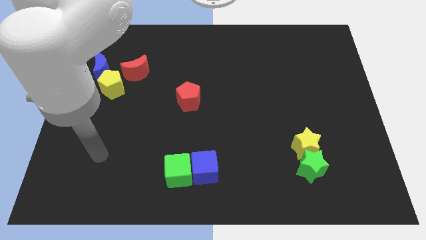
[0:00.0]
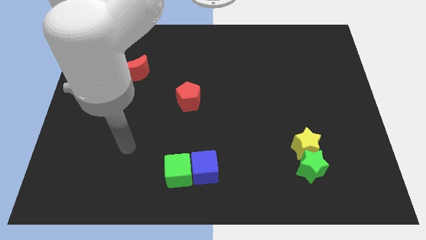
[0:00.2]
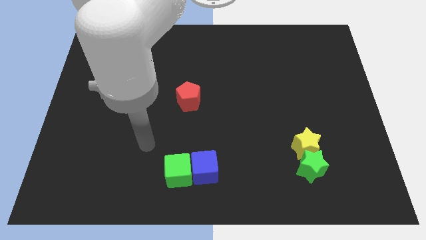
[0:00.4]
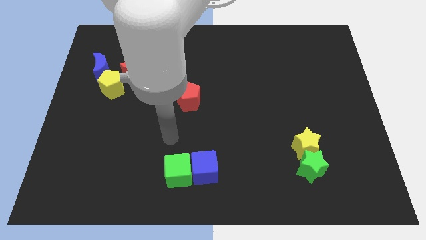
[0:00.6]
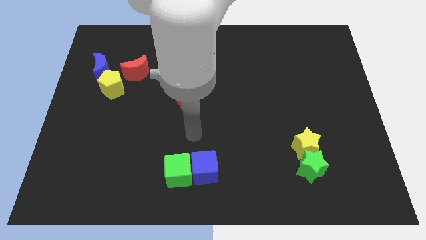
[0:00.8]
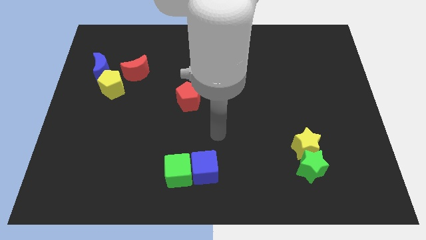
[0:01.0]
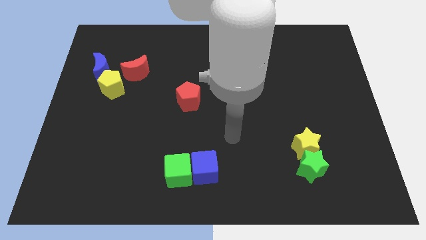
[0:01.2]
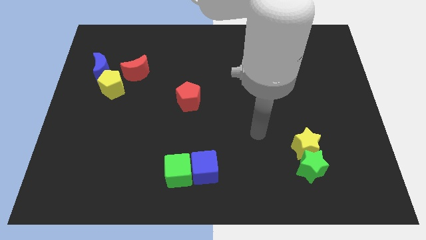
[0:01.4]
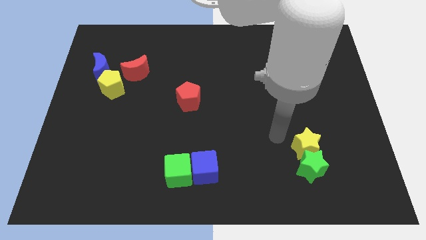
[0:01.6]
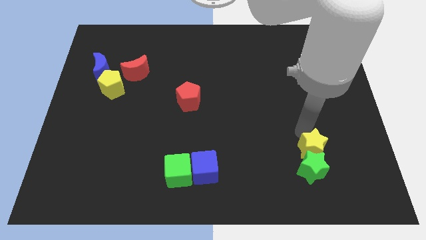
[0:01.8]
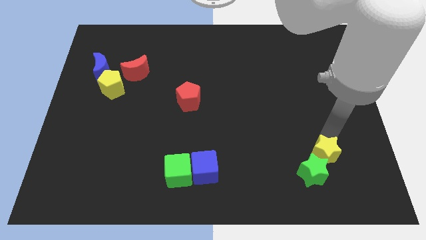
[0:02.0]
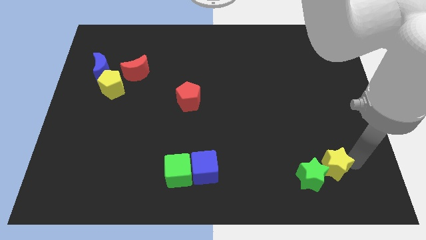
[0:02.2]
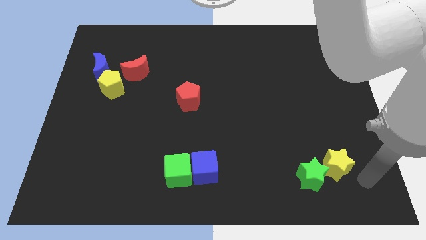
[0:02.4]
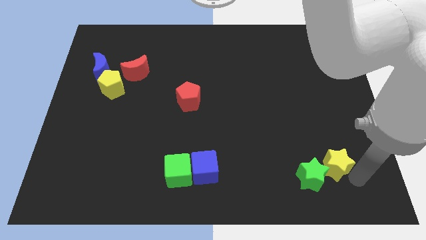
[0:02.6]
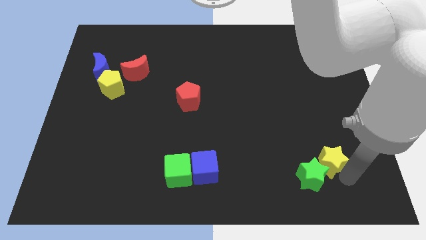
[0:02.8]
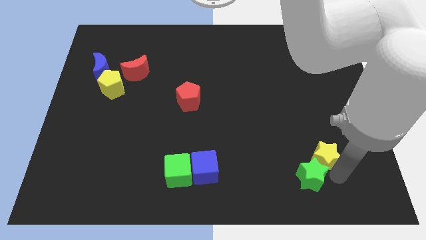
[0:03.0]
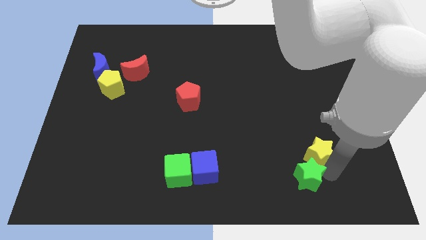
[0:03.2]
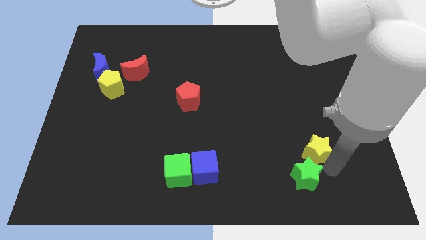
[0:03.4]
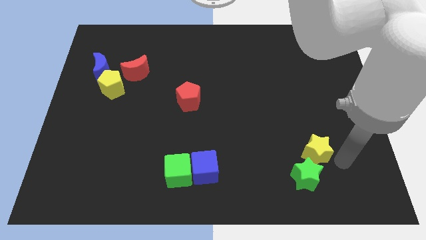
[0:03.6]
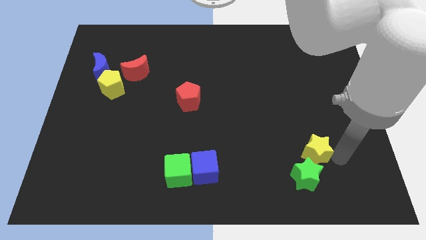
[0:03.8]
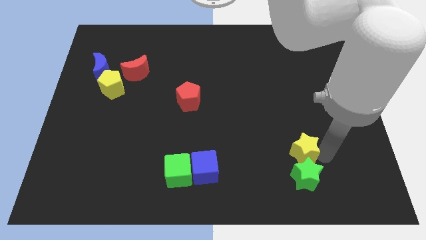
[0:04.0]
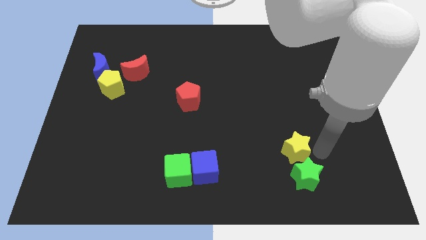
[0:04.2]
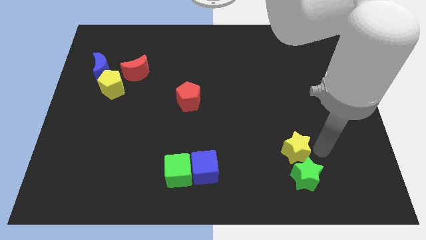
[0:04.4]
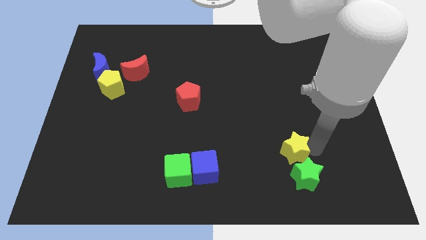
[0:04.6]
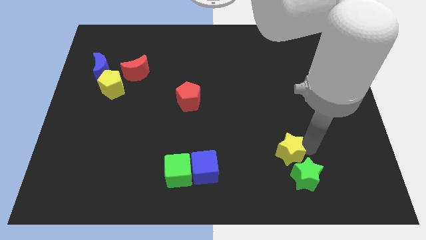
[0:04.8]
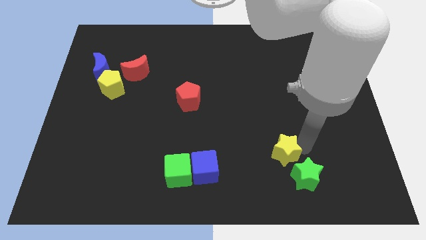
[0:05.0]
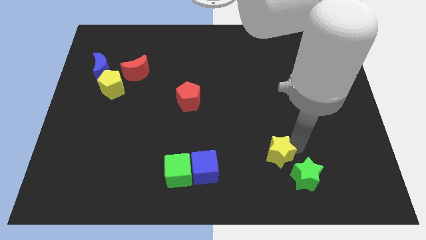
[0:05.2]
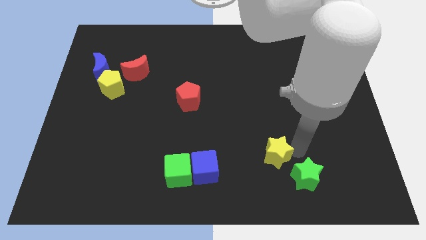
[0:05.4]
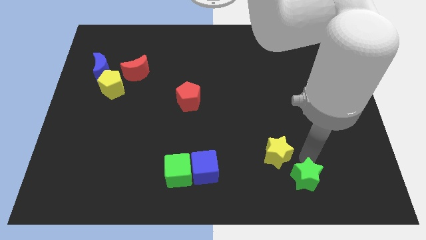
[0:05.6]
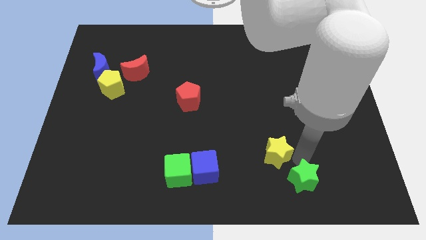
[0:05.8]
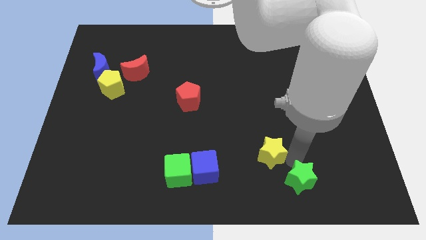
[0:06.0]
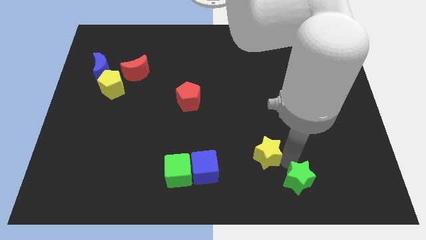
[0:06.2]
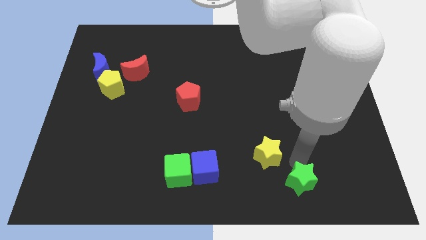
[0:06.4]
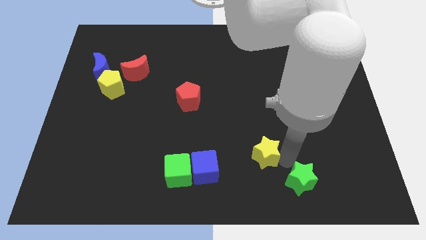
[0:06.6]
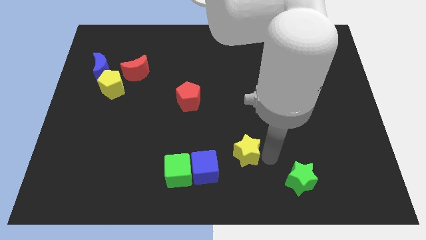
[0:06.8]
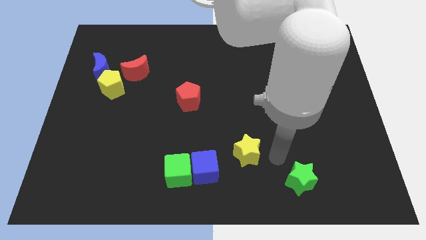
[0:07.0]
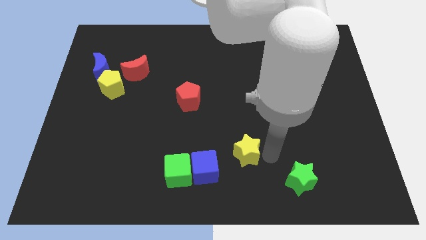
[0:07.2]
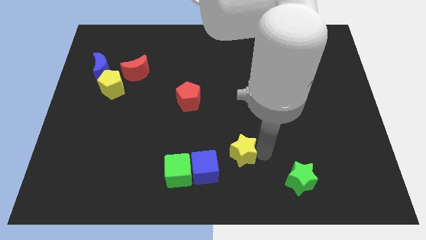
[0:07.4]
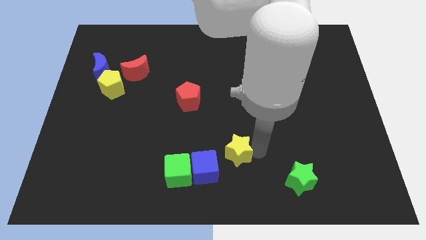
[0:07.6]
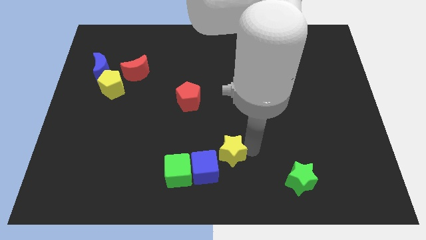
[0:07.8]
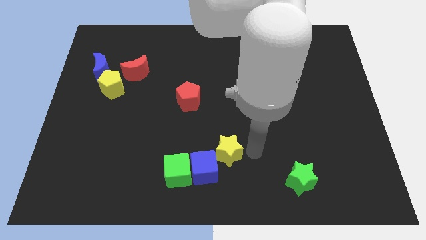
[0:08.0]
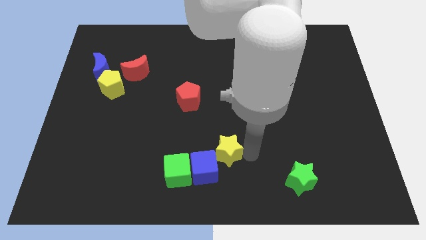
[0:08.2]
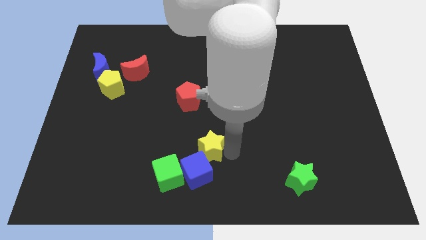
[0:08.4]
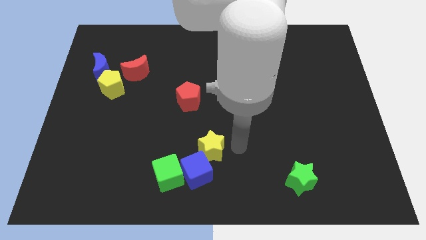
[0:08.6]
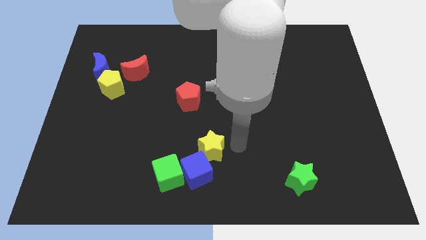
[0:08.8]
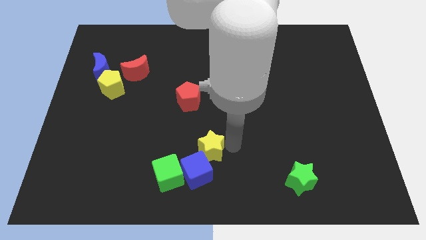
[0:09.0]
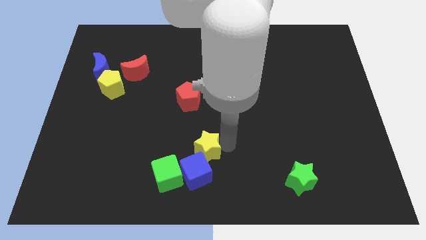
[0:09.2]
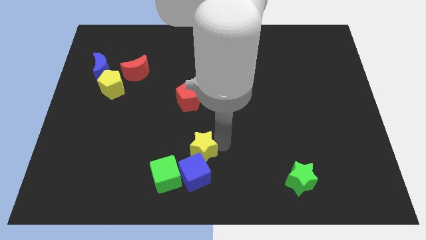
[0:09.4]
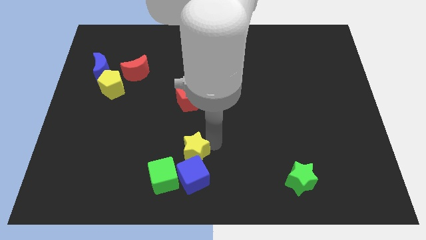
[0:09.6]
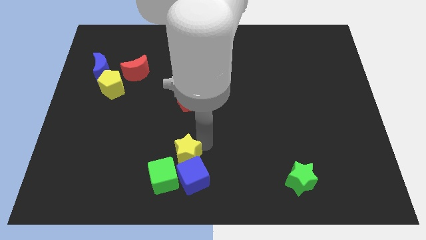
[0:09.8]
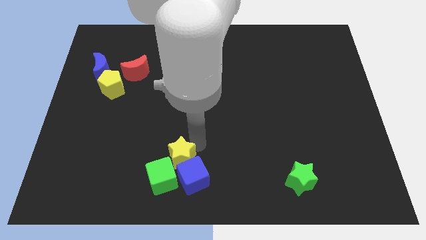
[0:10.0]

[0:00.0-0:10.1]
put the yellow star close to the green cube

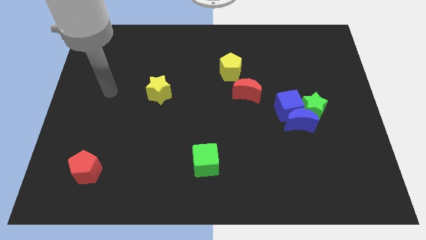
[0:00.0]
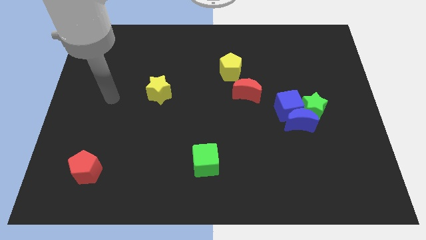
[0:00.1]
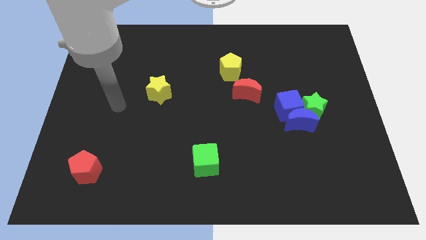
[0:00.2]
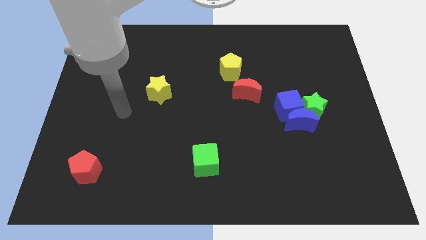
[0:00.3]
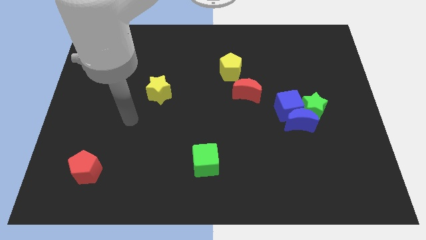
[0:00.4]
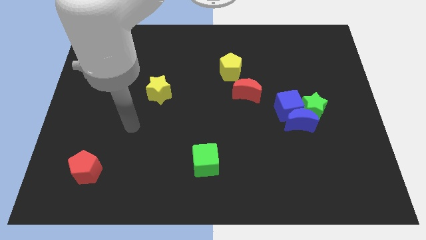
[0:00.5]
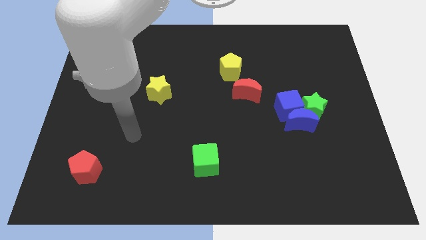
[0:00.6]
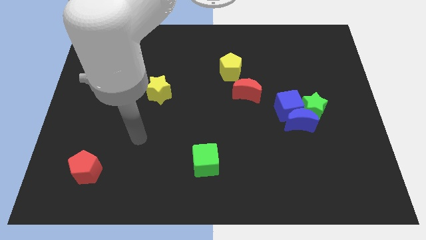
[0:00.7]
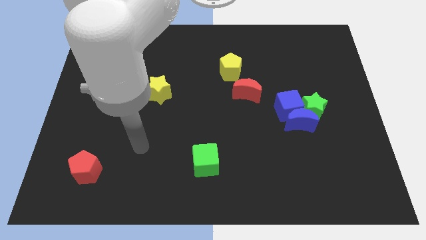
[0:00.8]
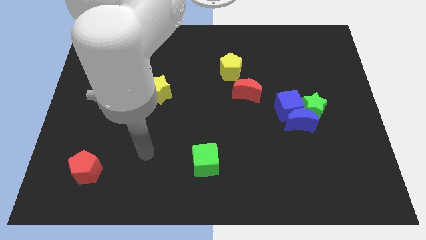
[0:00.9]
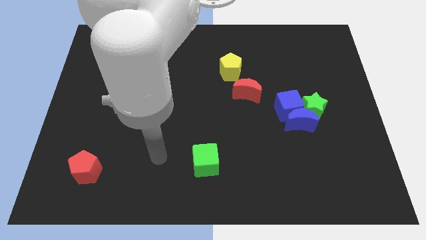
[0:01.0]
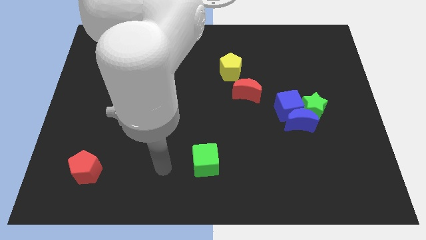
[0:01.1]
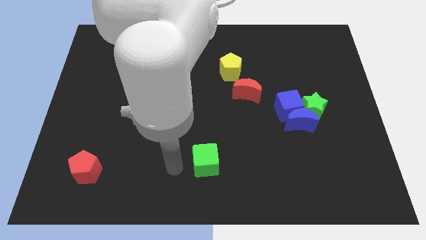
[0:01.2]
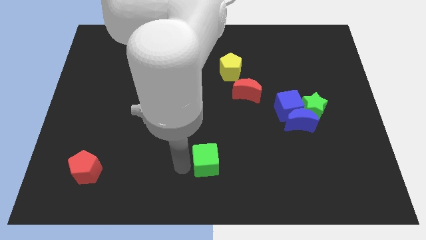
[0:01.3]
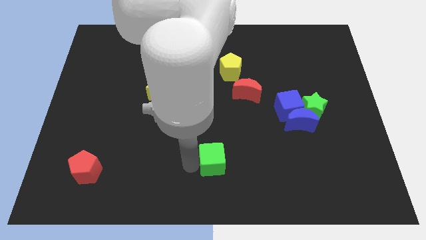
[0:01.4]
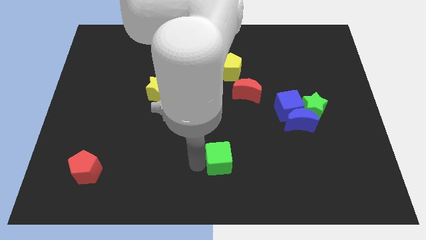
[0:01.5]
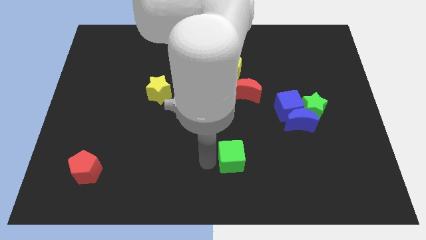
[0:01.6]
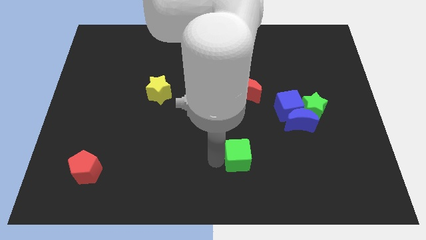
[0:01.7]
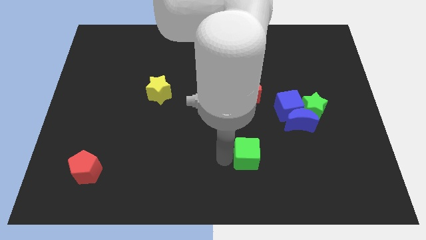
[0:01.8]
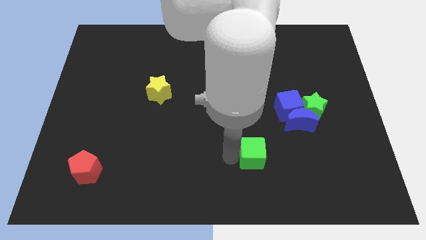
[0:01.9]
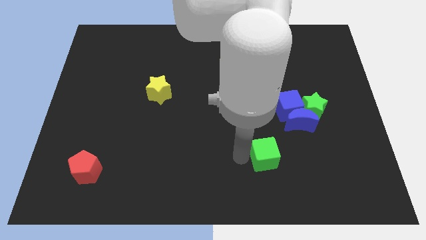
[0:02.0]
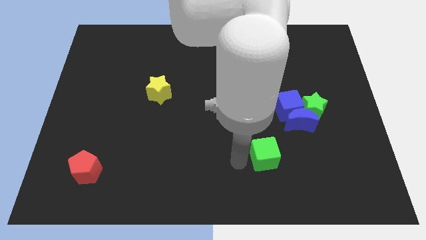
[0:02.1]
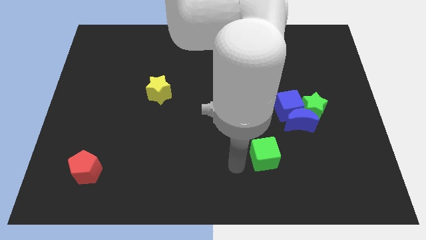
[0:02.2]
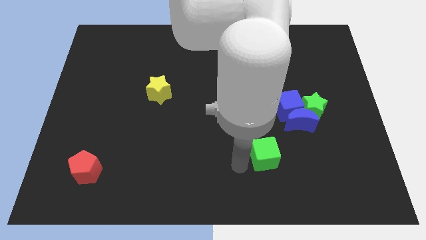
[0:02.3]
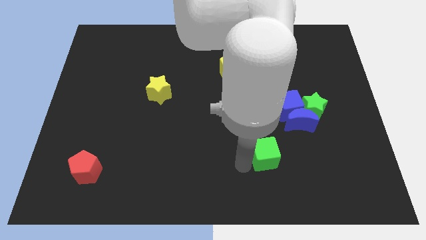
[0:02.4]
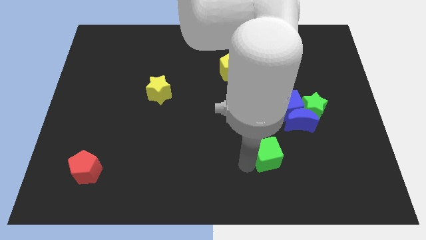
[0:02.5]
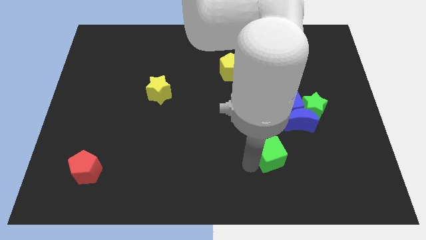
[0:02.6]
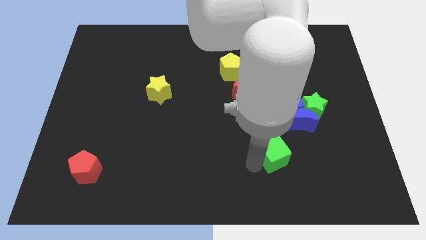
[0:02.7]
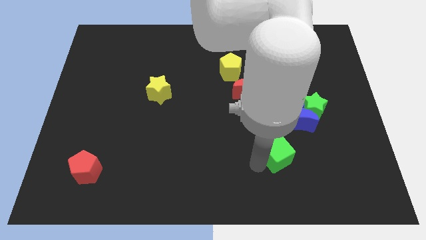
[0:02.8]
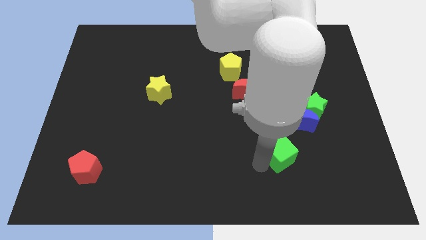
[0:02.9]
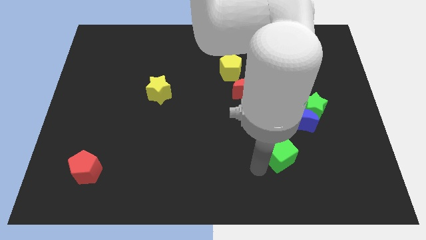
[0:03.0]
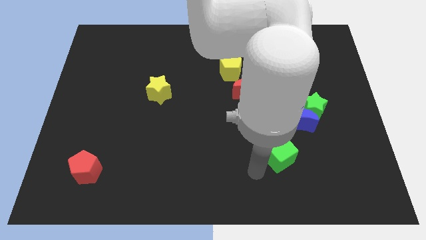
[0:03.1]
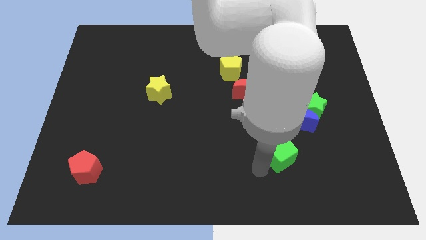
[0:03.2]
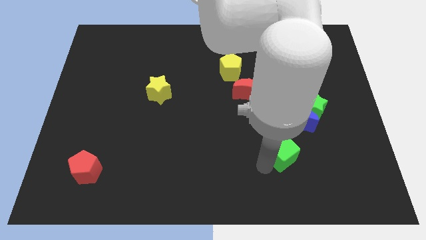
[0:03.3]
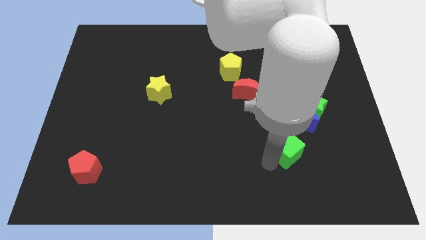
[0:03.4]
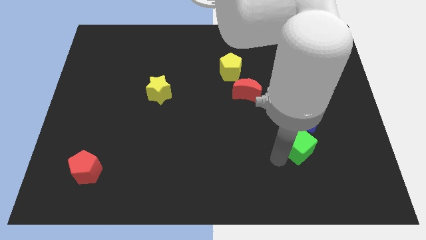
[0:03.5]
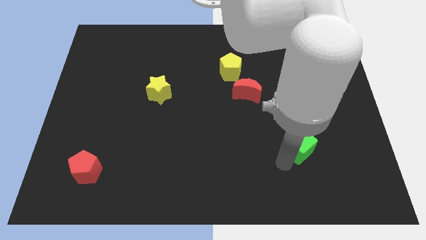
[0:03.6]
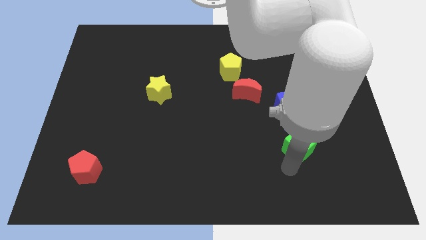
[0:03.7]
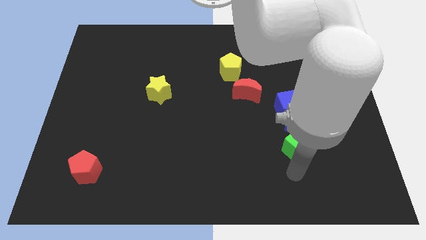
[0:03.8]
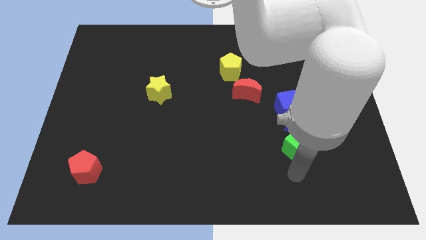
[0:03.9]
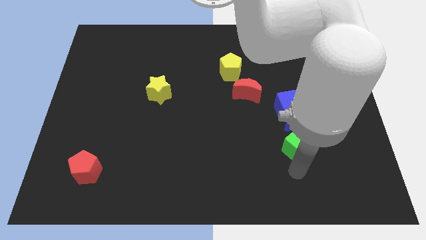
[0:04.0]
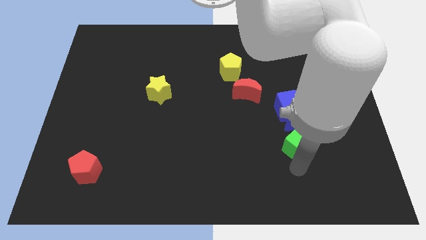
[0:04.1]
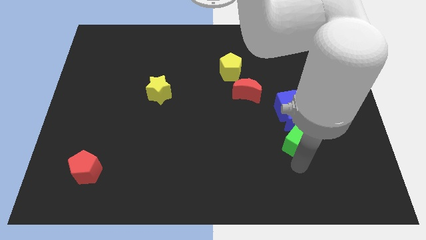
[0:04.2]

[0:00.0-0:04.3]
slide the green cube next to the blue moon
